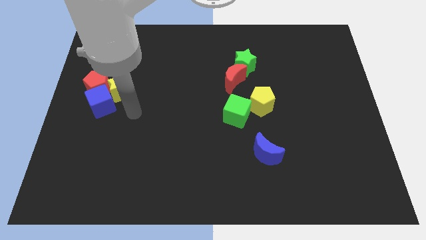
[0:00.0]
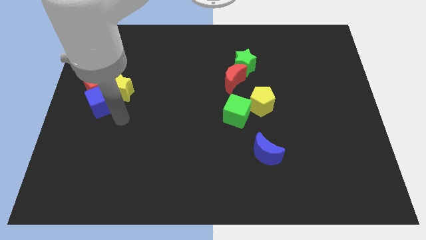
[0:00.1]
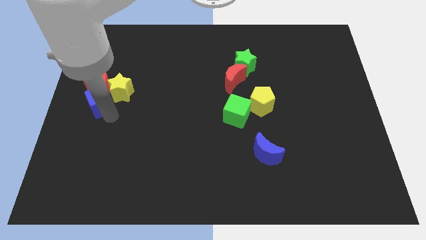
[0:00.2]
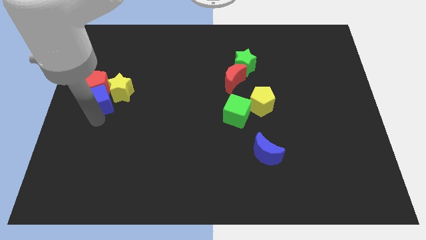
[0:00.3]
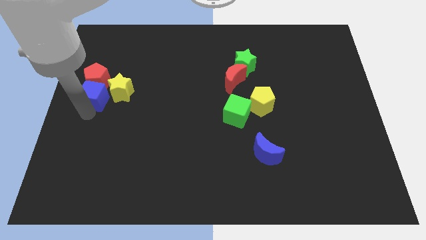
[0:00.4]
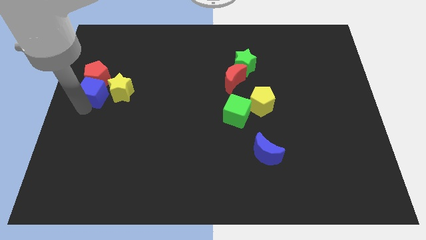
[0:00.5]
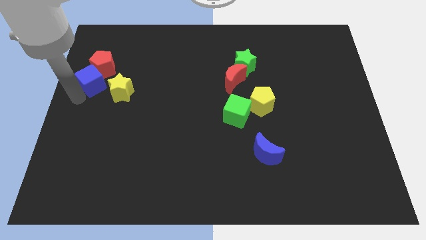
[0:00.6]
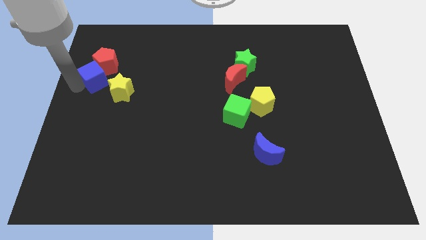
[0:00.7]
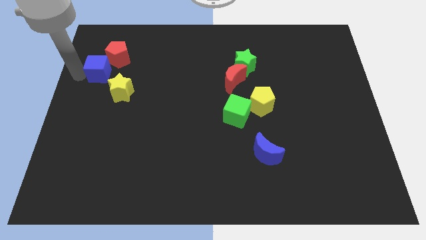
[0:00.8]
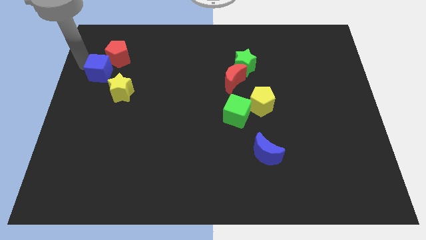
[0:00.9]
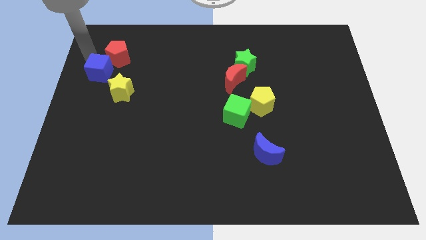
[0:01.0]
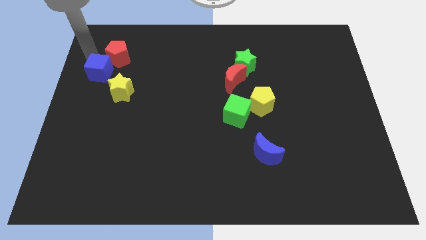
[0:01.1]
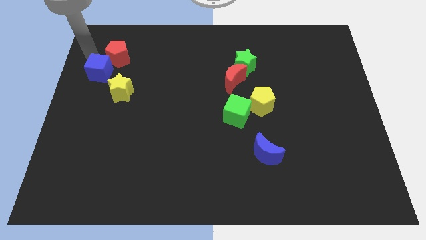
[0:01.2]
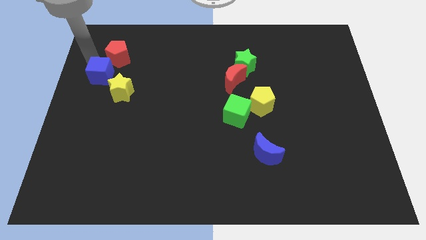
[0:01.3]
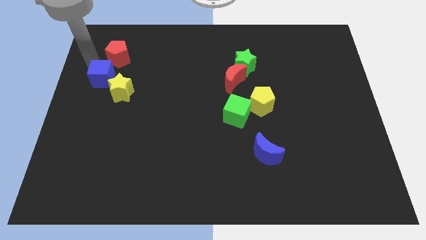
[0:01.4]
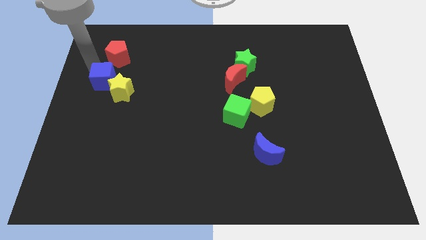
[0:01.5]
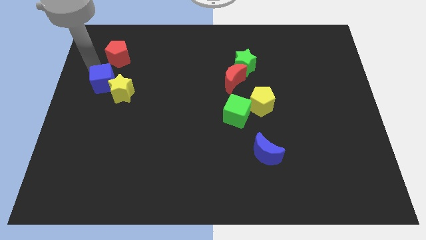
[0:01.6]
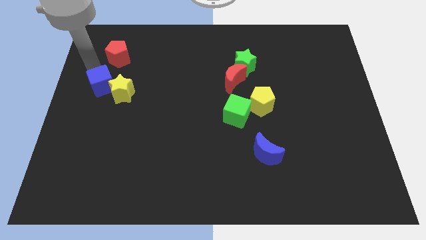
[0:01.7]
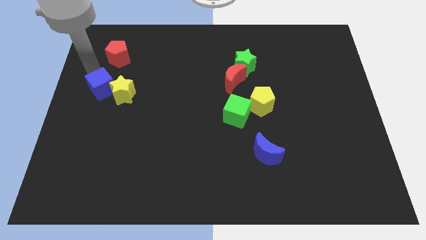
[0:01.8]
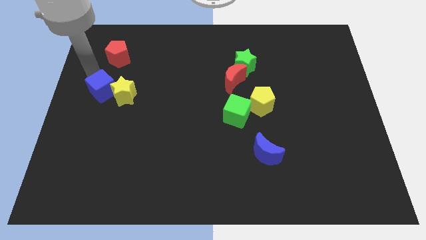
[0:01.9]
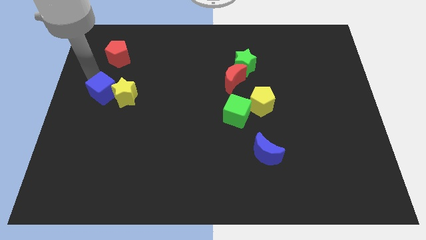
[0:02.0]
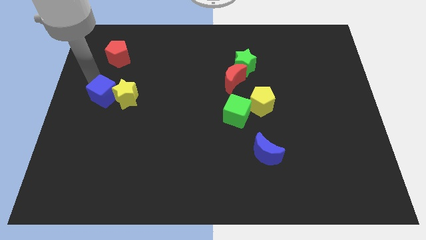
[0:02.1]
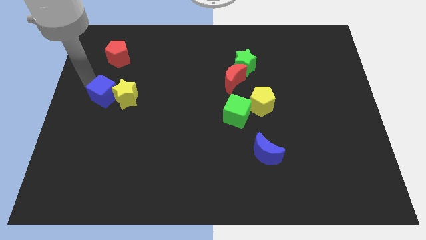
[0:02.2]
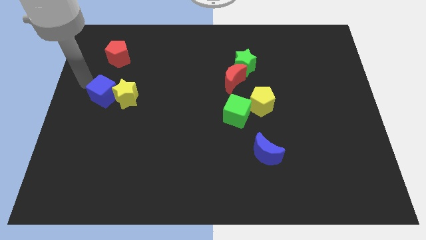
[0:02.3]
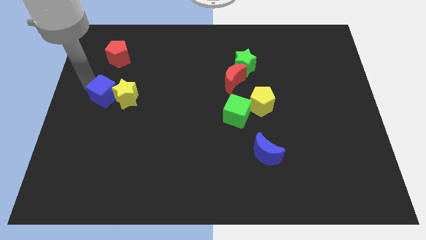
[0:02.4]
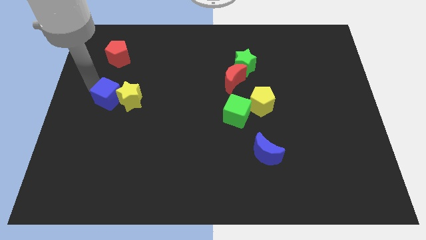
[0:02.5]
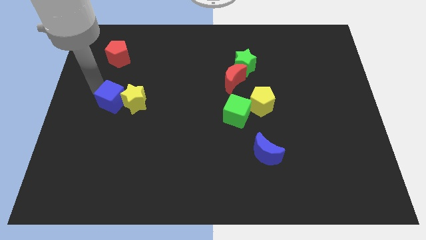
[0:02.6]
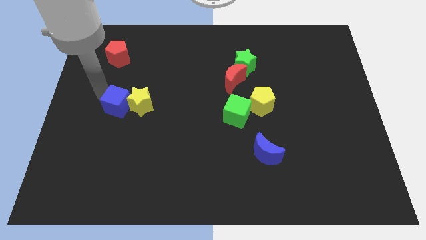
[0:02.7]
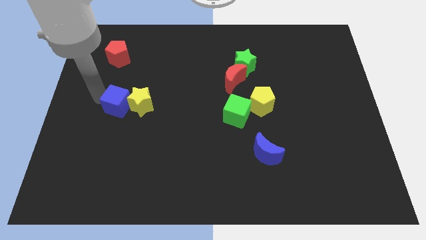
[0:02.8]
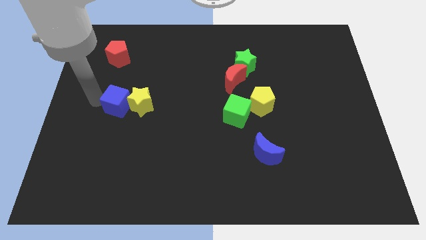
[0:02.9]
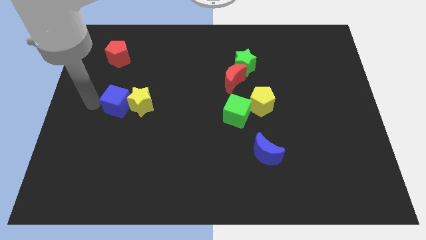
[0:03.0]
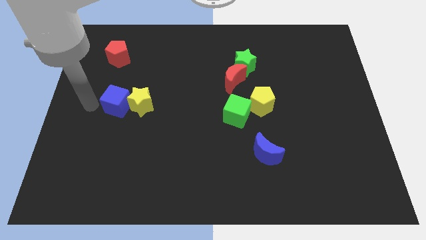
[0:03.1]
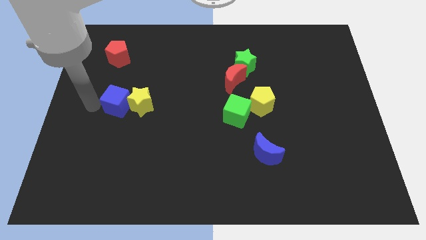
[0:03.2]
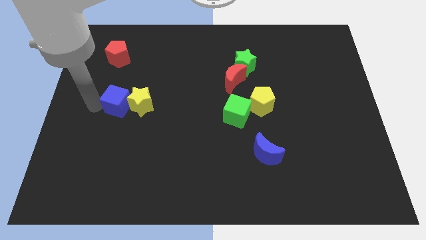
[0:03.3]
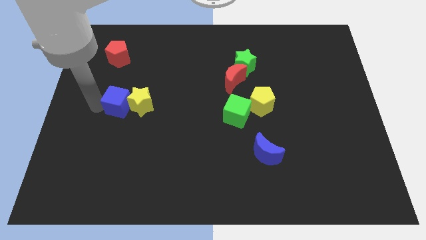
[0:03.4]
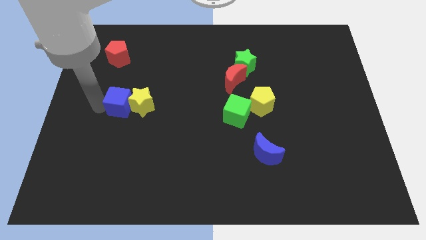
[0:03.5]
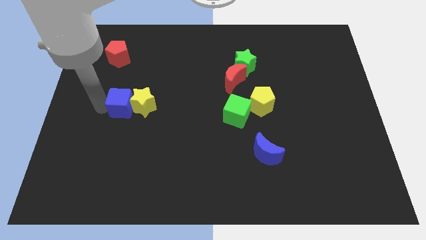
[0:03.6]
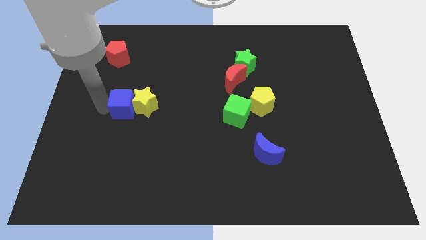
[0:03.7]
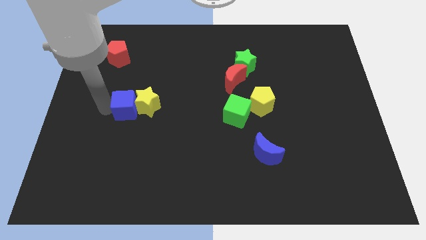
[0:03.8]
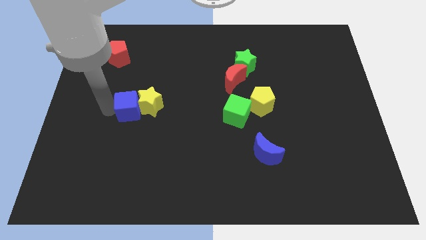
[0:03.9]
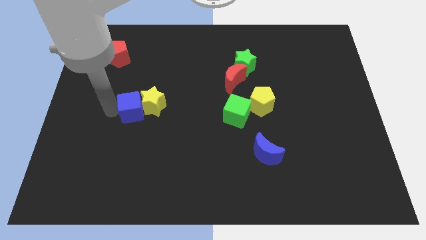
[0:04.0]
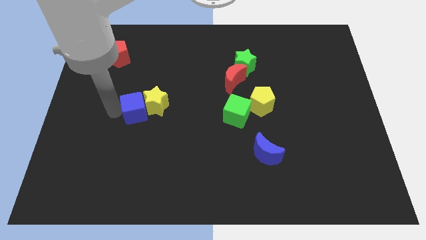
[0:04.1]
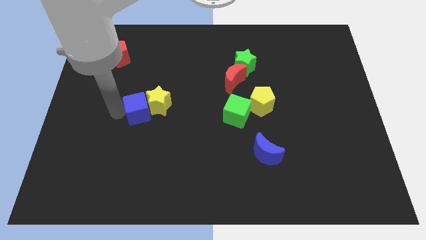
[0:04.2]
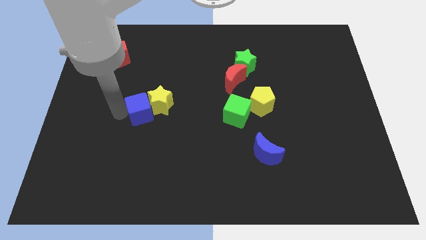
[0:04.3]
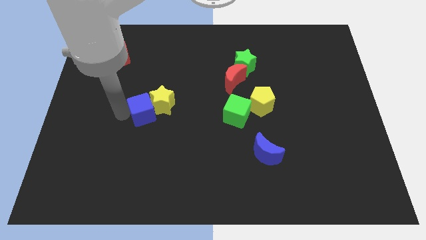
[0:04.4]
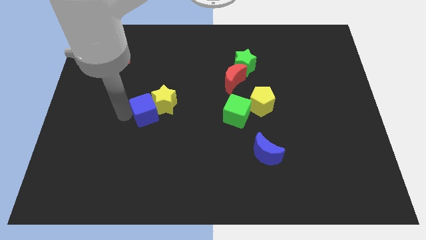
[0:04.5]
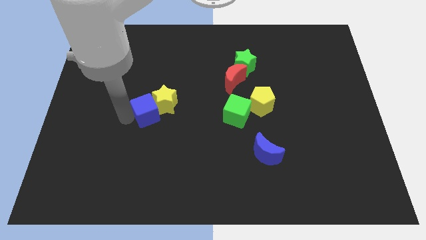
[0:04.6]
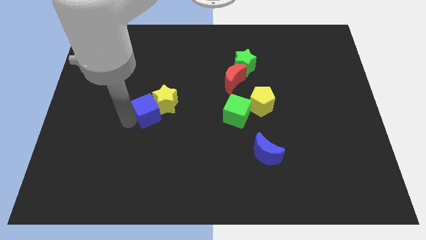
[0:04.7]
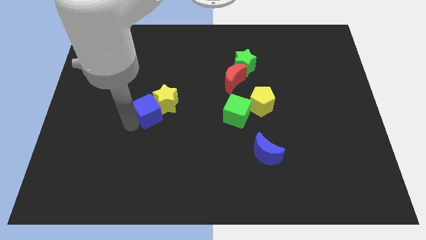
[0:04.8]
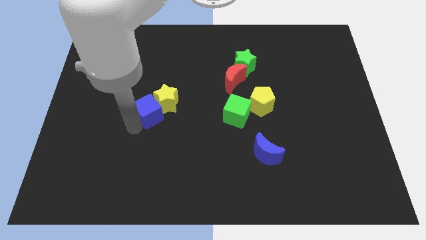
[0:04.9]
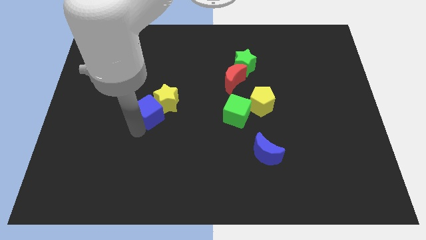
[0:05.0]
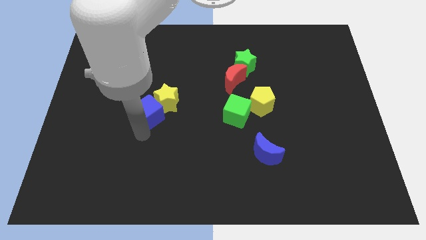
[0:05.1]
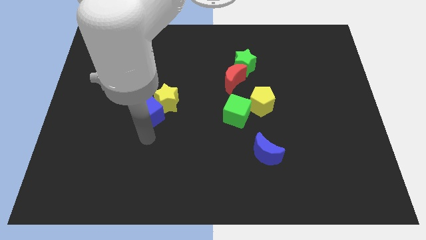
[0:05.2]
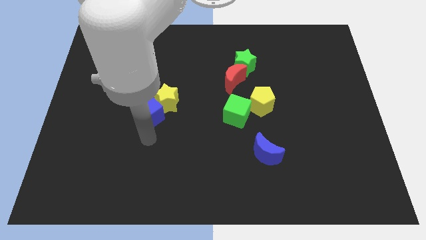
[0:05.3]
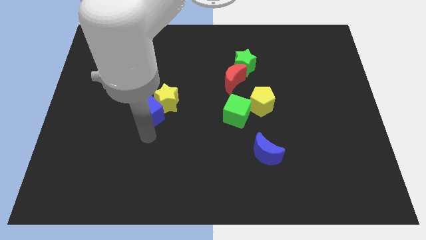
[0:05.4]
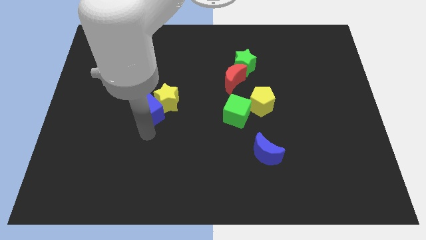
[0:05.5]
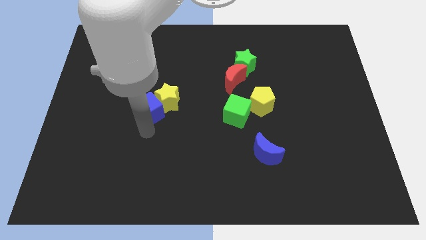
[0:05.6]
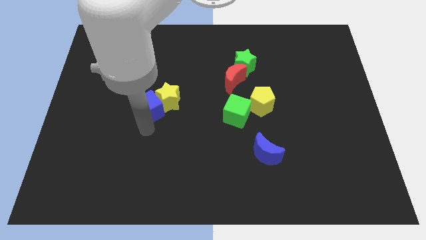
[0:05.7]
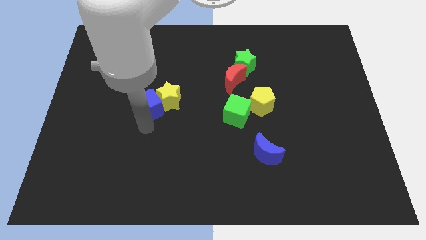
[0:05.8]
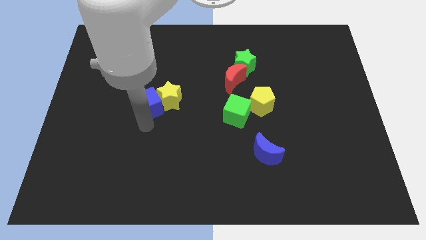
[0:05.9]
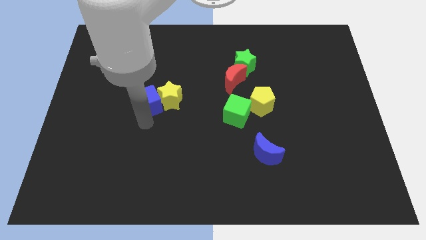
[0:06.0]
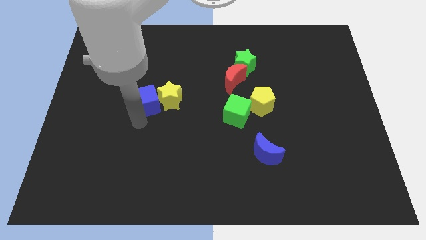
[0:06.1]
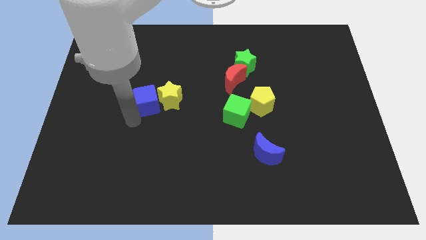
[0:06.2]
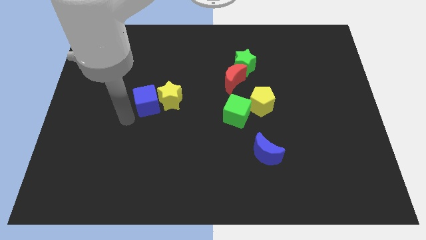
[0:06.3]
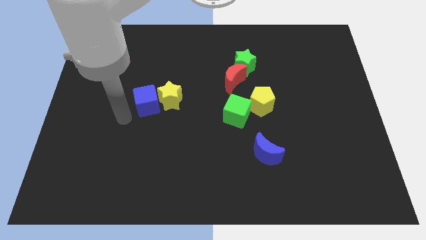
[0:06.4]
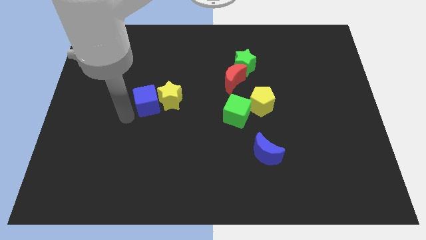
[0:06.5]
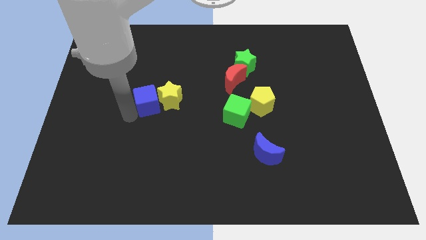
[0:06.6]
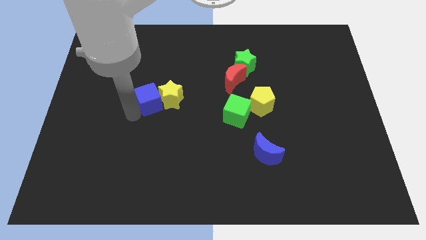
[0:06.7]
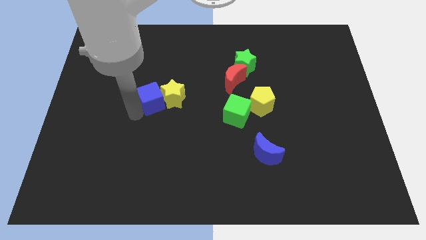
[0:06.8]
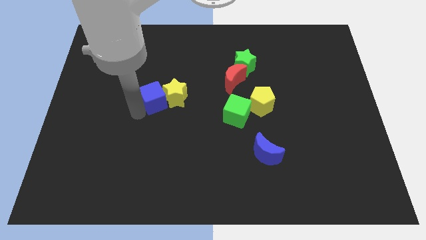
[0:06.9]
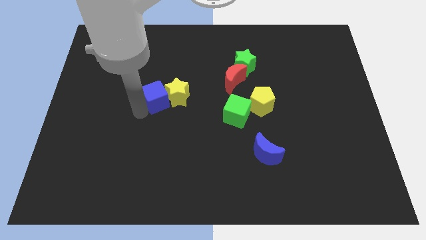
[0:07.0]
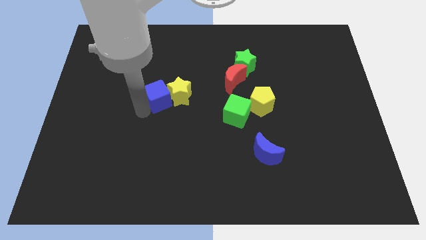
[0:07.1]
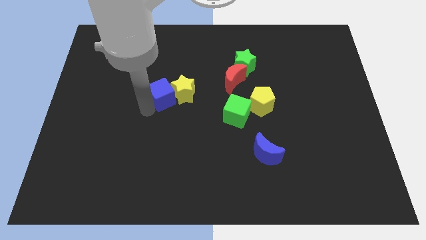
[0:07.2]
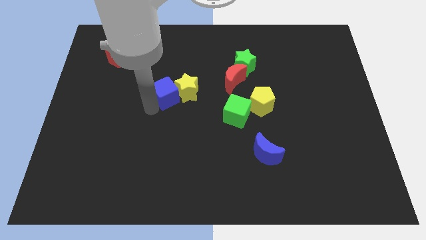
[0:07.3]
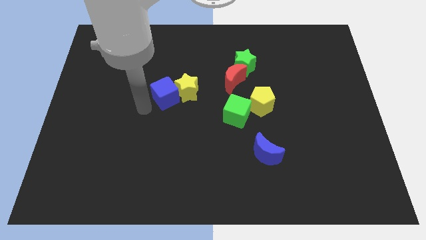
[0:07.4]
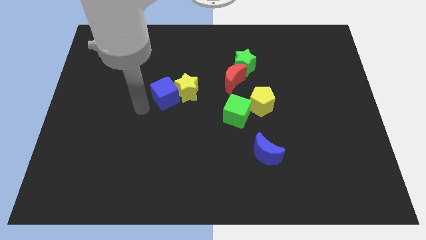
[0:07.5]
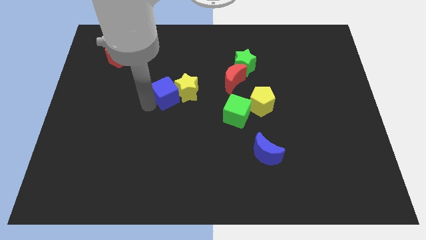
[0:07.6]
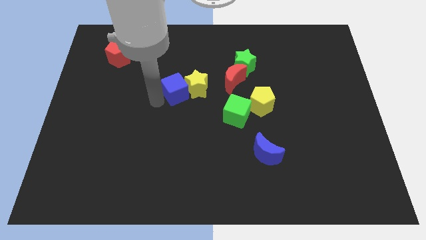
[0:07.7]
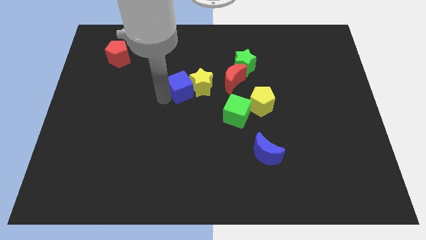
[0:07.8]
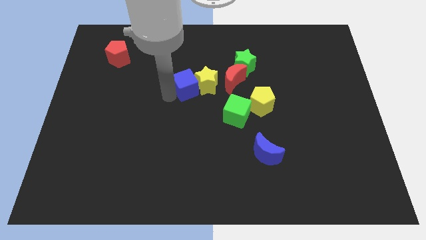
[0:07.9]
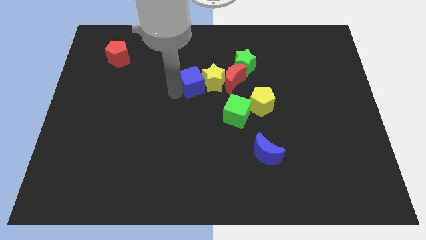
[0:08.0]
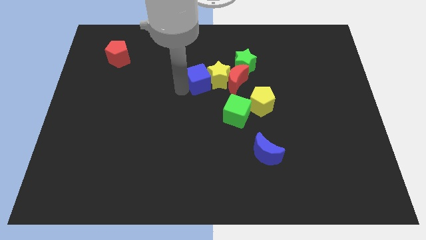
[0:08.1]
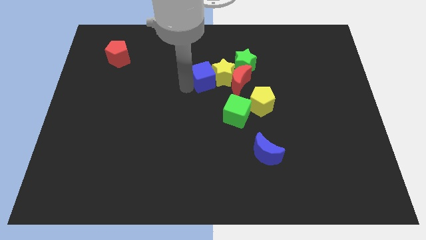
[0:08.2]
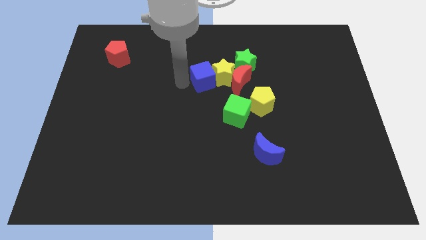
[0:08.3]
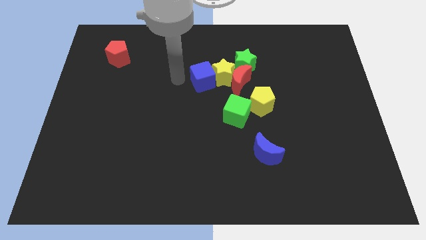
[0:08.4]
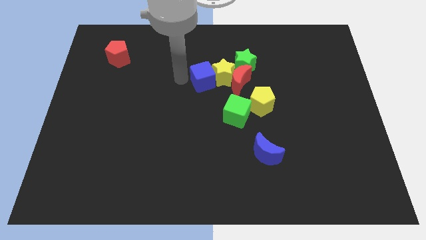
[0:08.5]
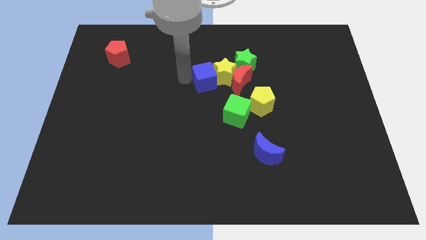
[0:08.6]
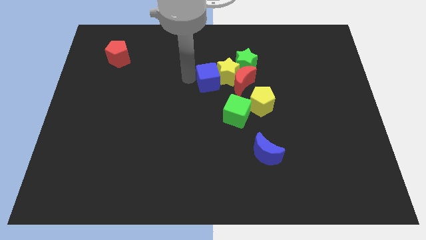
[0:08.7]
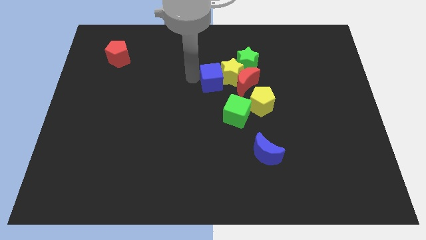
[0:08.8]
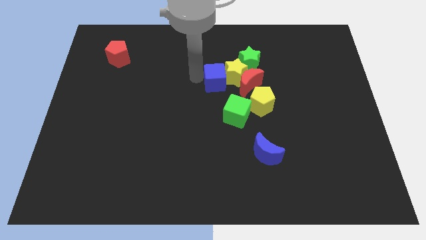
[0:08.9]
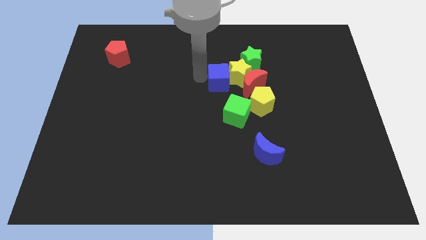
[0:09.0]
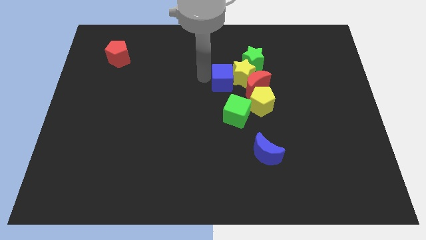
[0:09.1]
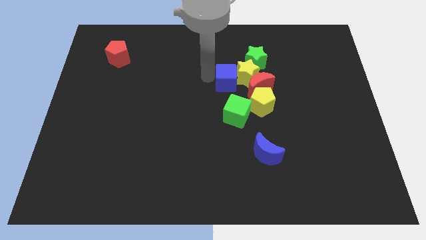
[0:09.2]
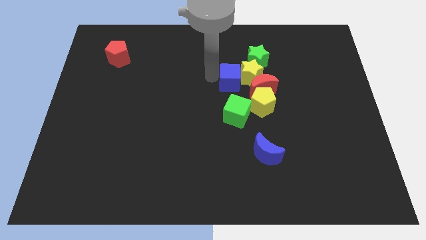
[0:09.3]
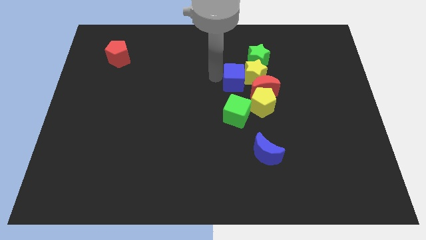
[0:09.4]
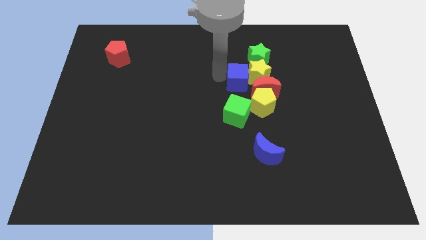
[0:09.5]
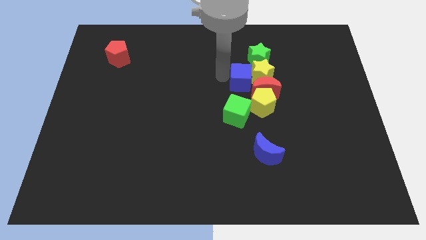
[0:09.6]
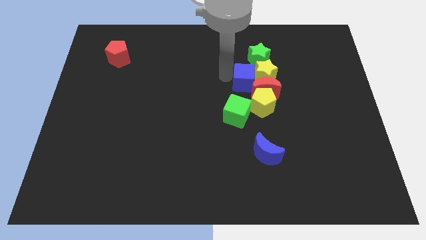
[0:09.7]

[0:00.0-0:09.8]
move the blue cube close to the red moon
